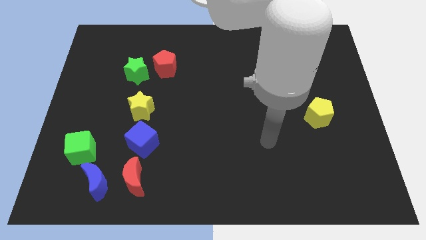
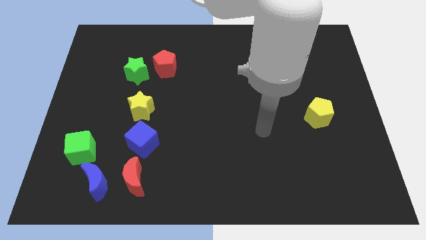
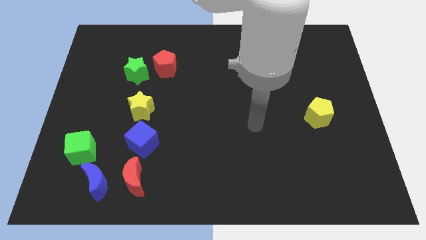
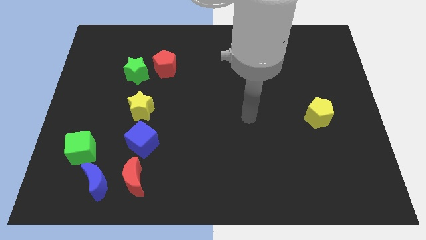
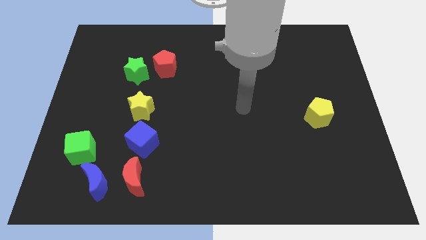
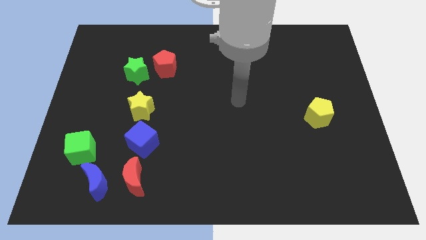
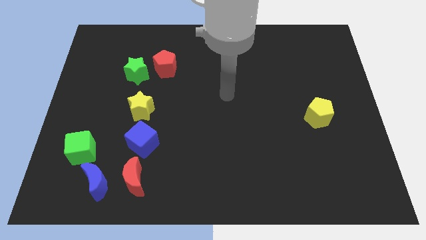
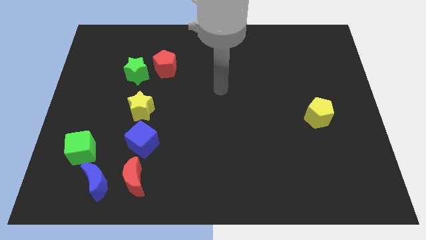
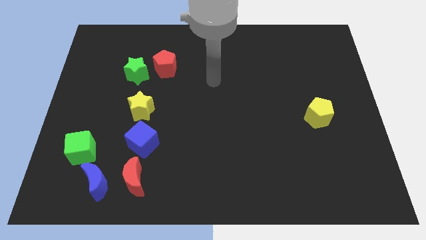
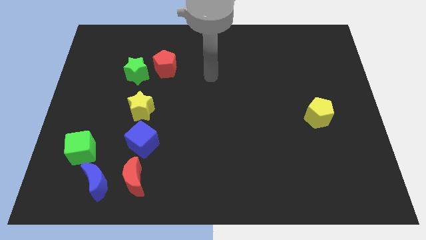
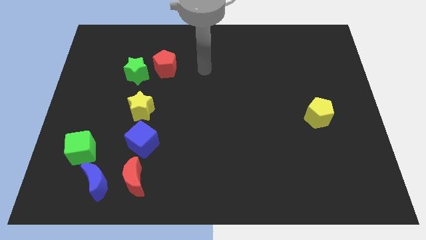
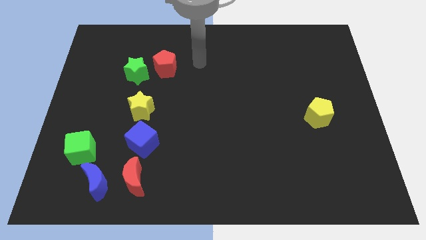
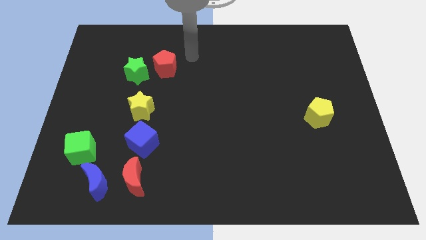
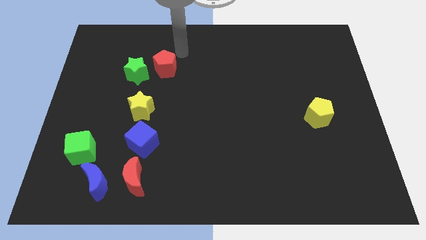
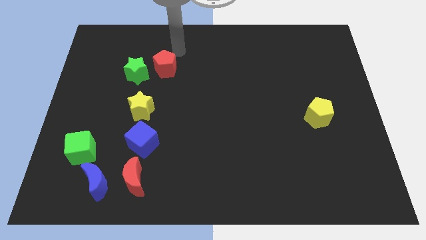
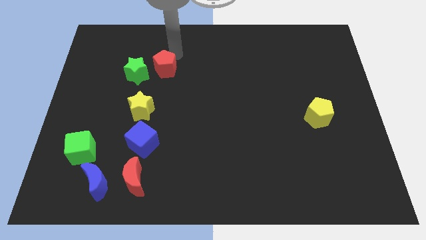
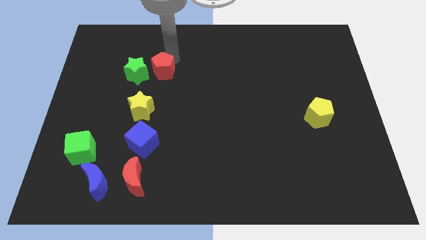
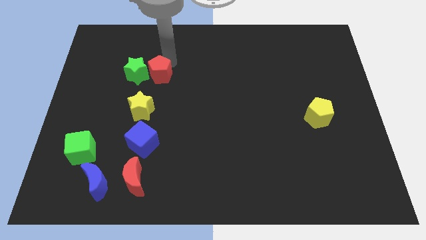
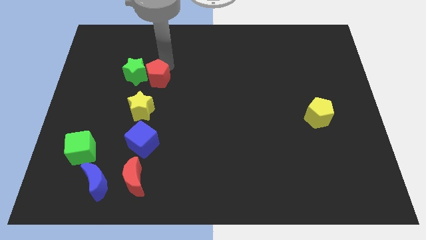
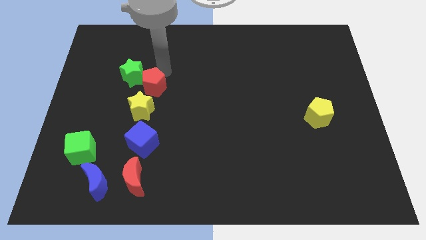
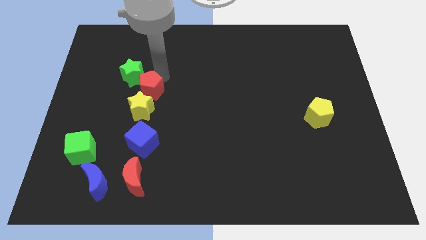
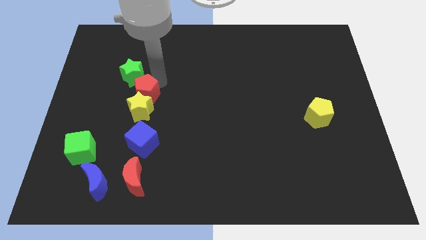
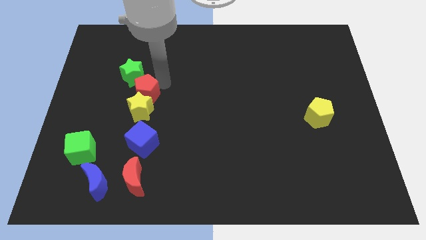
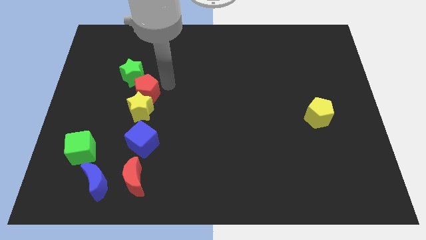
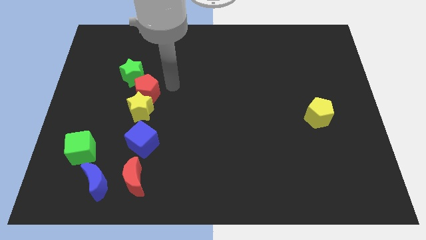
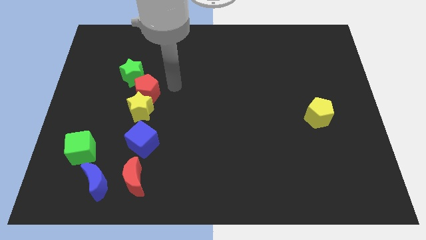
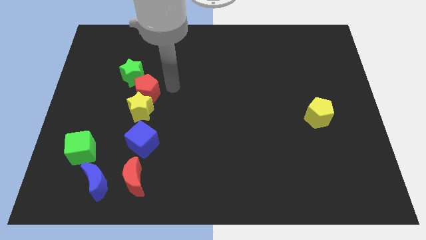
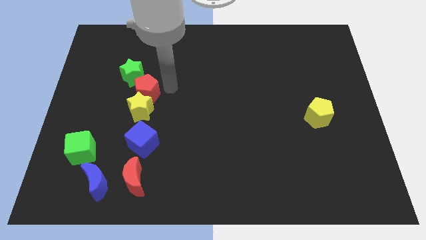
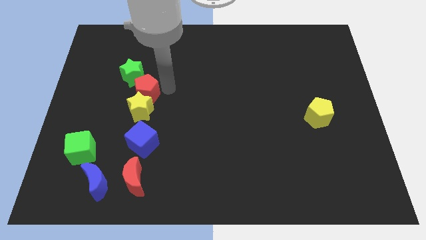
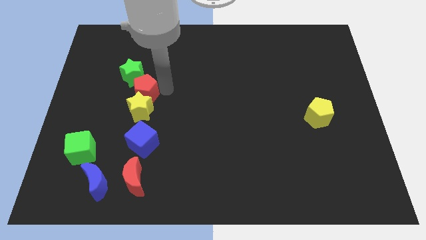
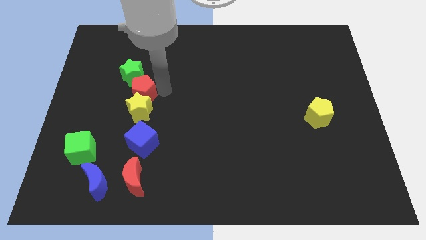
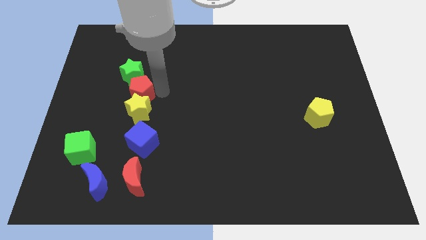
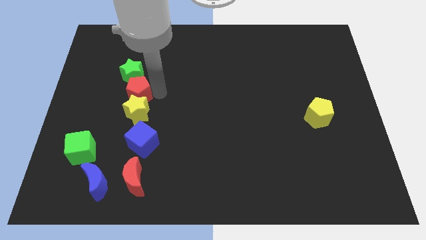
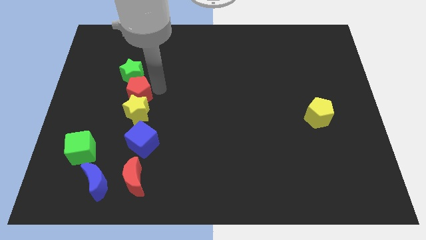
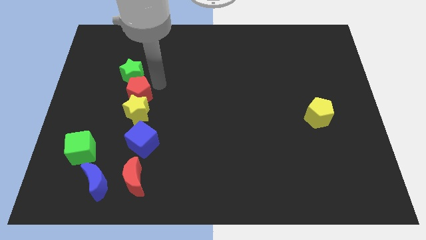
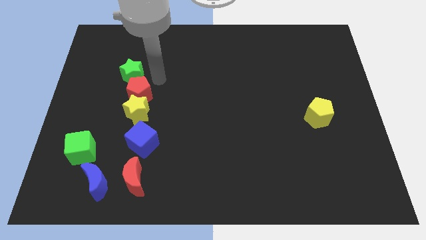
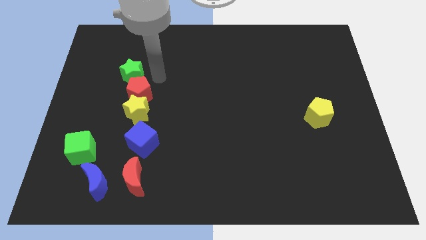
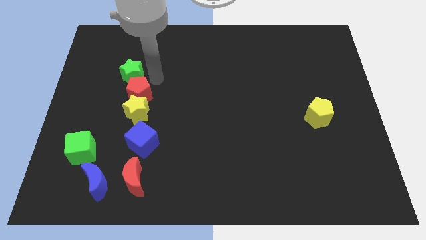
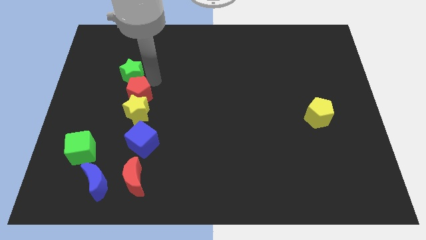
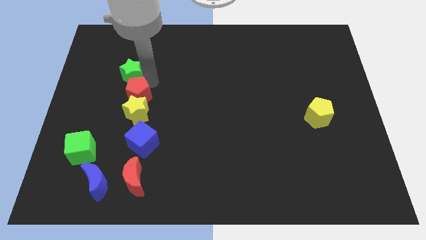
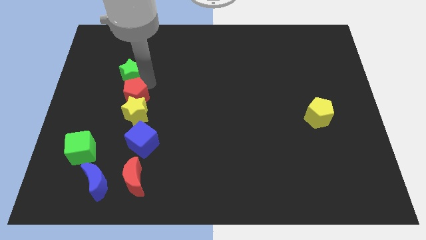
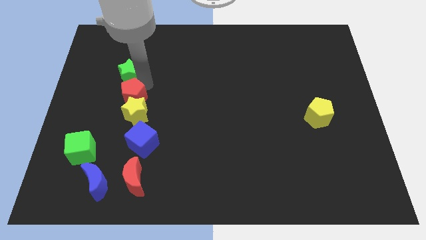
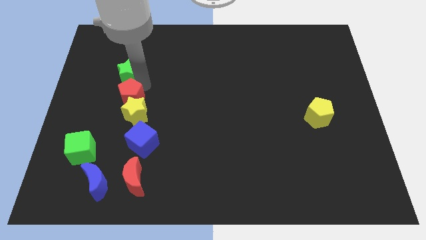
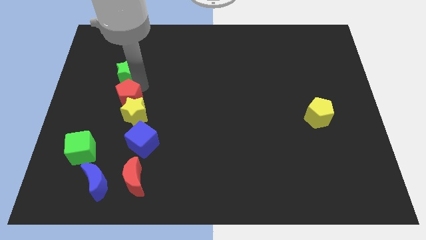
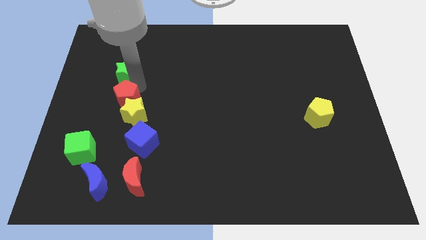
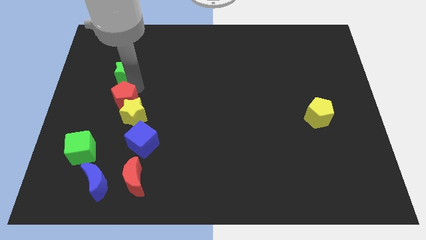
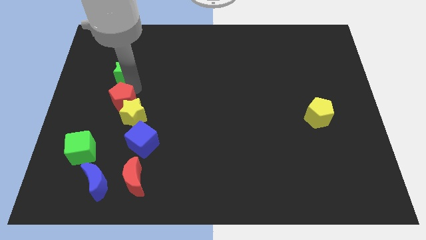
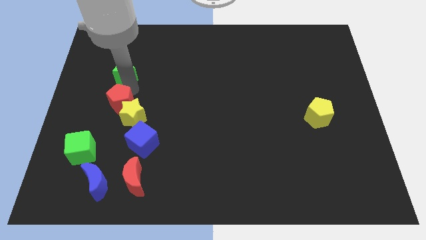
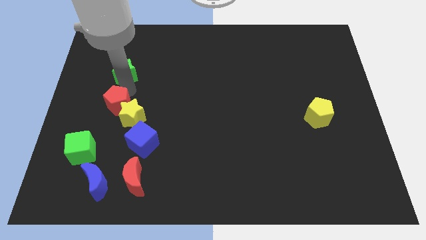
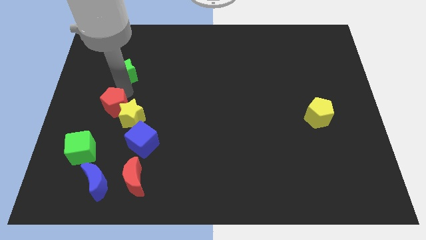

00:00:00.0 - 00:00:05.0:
move the red pentagon diagonally up and to the left of the blue cube

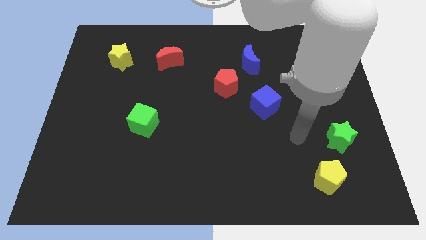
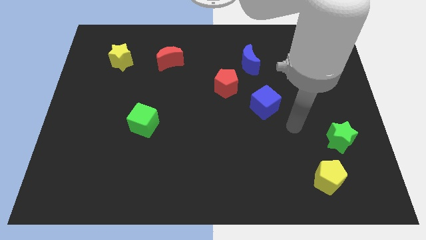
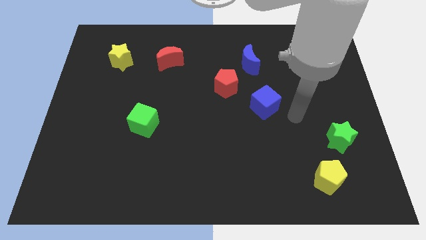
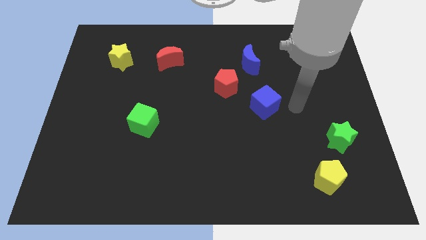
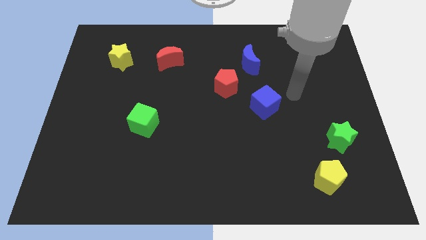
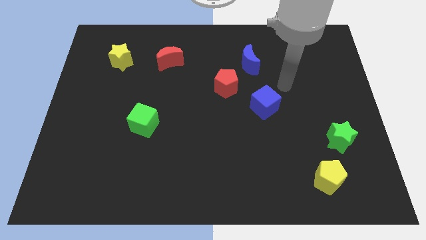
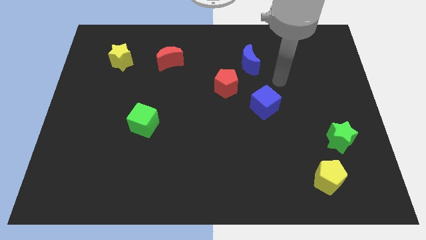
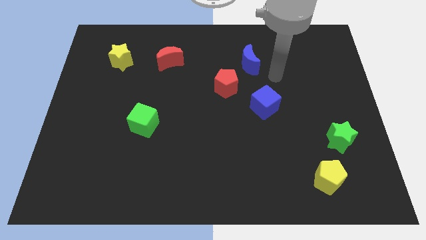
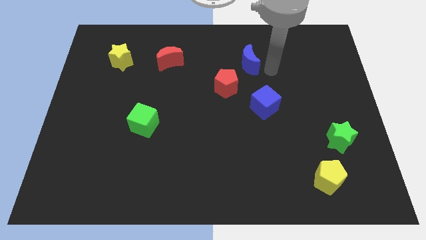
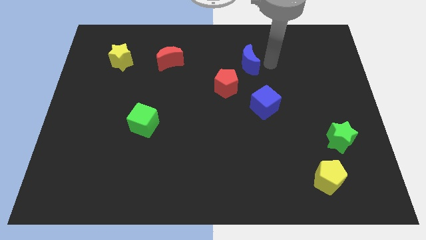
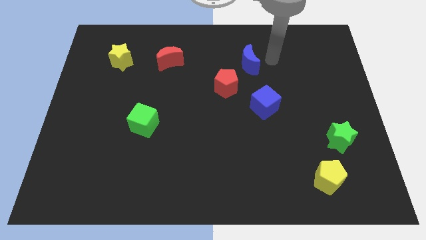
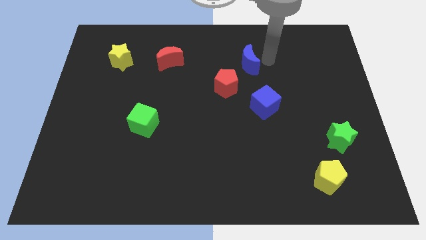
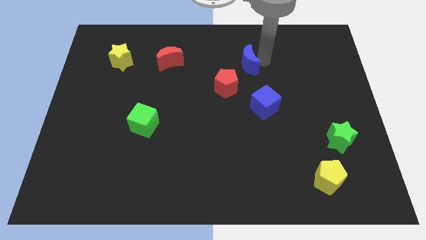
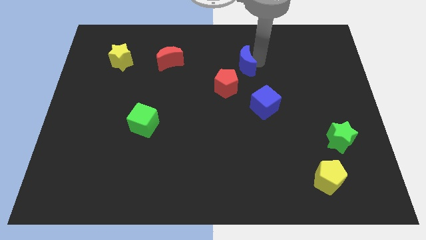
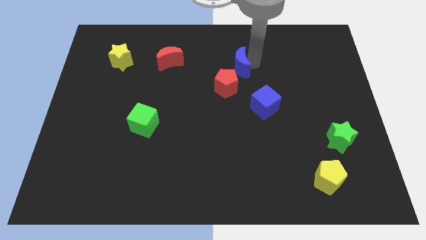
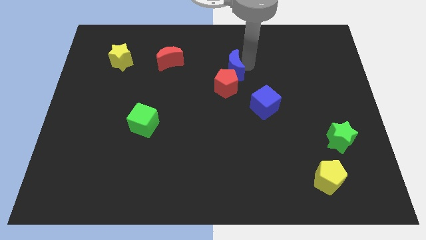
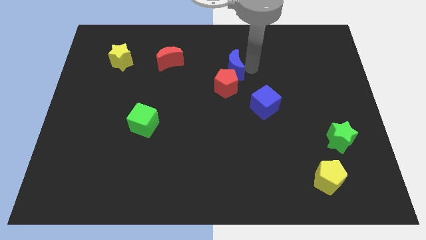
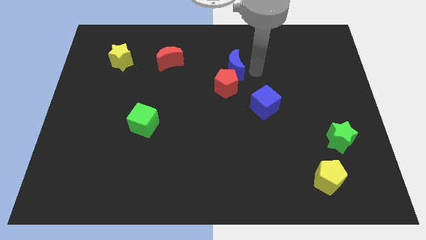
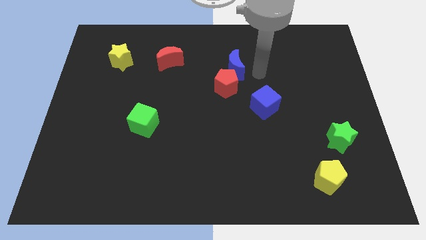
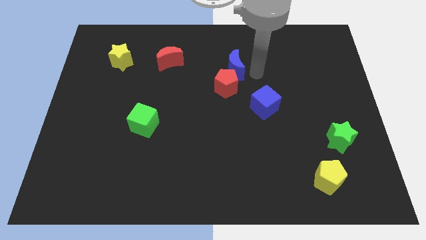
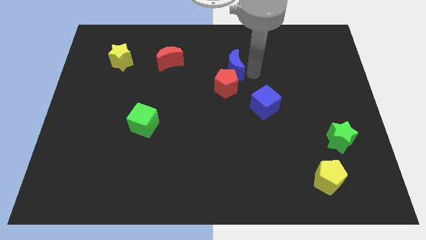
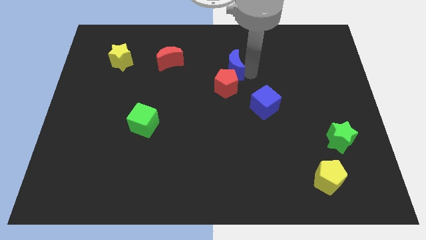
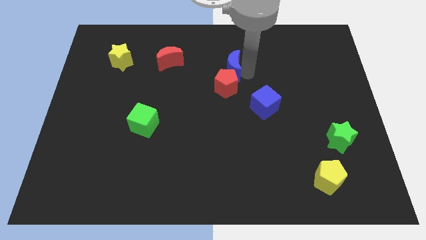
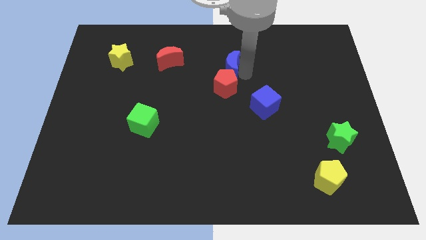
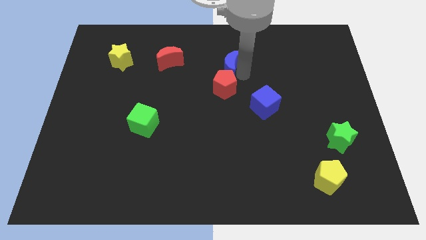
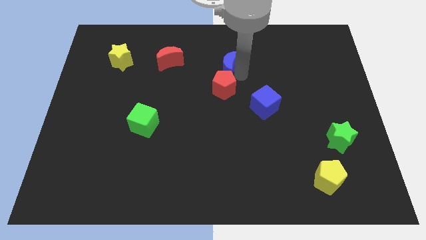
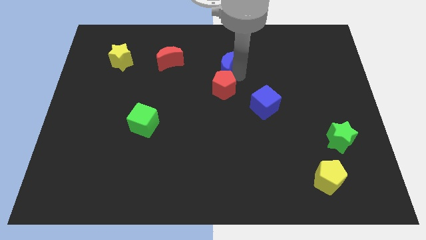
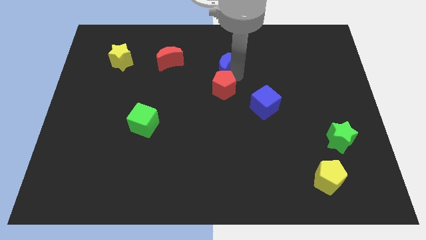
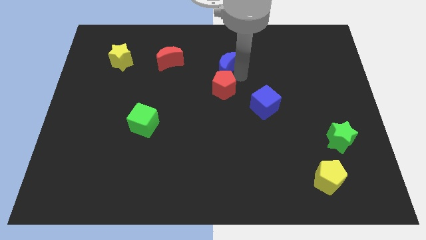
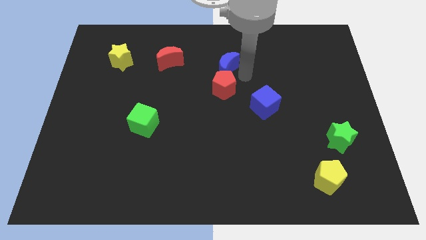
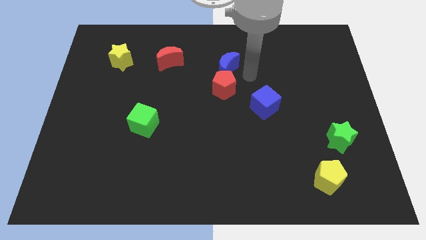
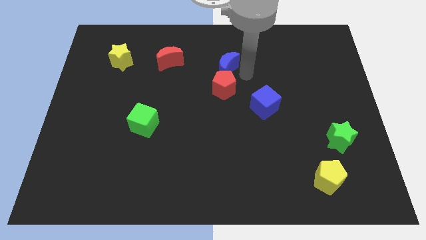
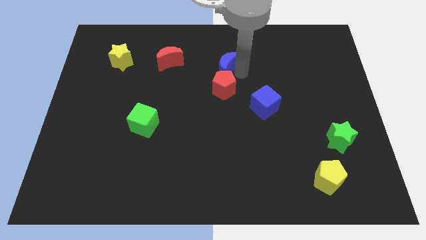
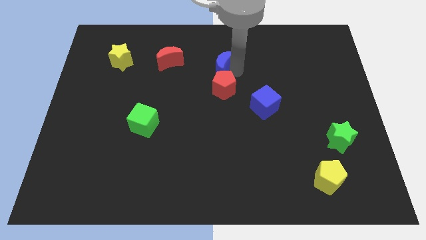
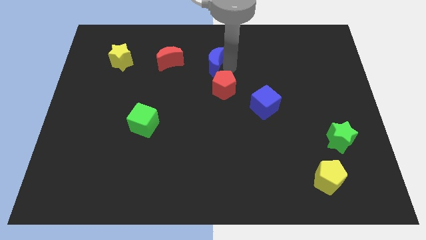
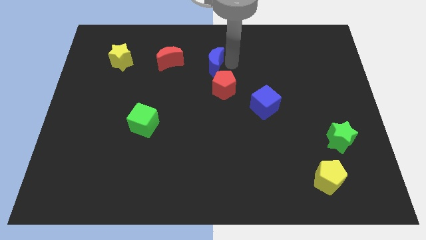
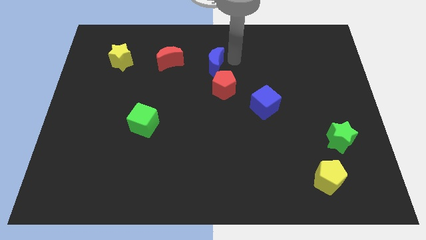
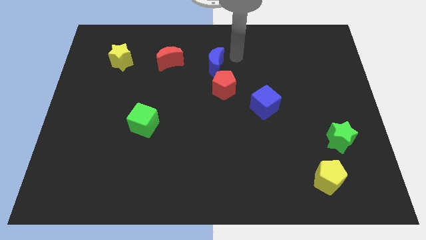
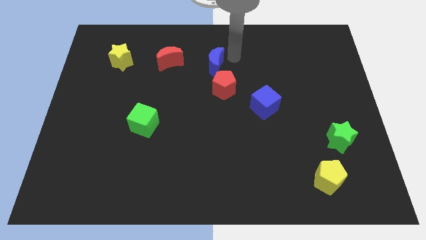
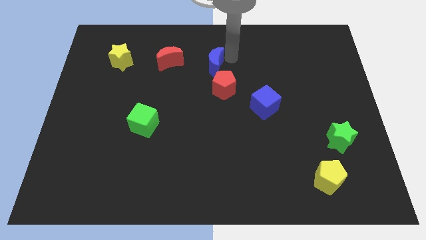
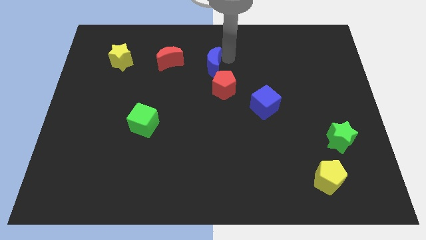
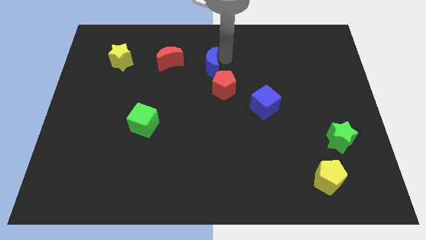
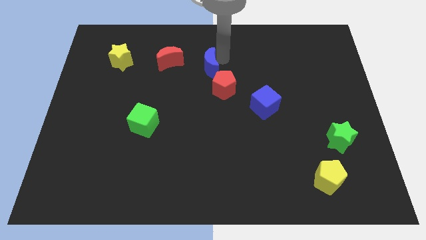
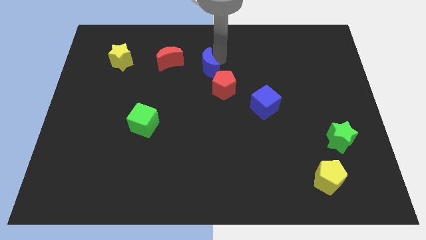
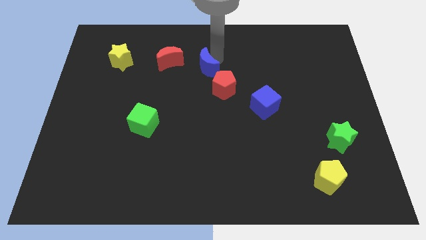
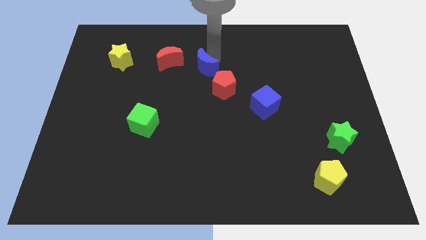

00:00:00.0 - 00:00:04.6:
put the blue moon to the bottom right side of the red moon
